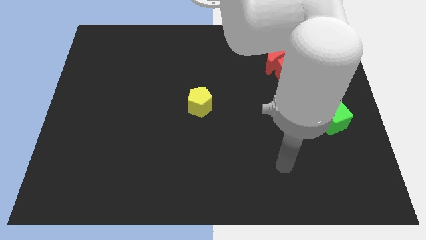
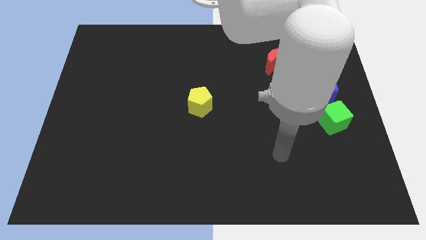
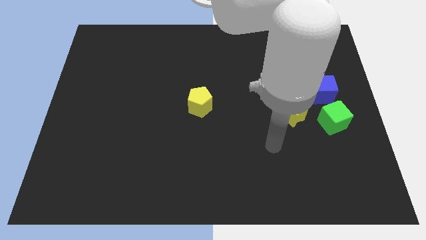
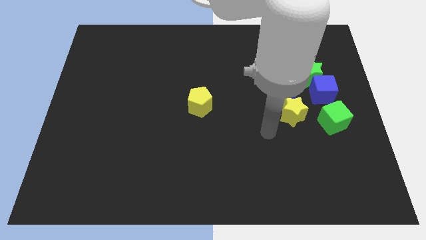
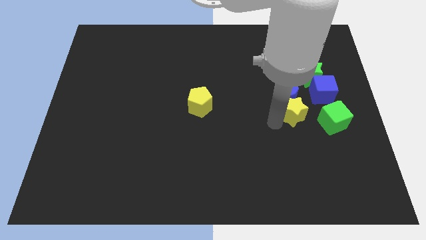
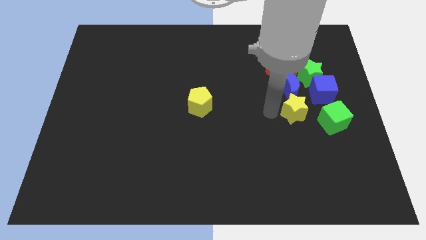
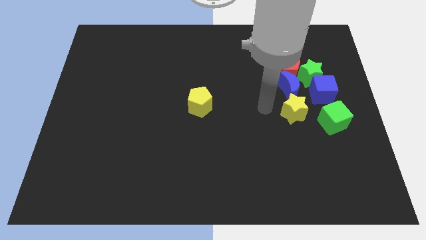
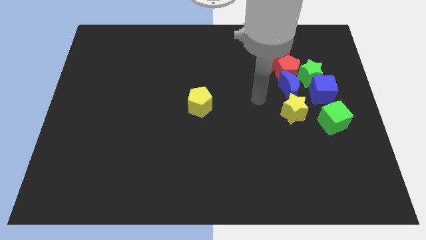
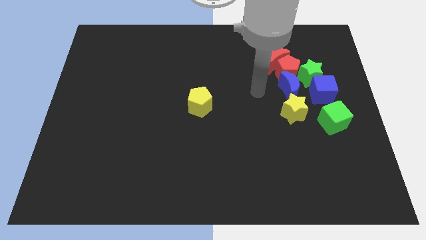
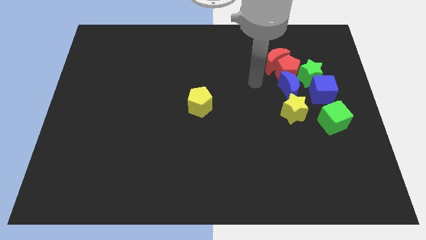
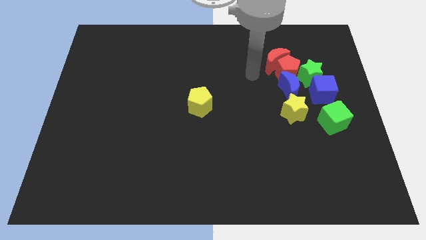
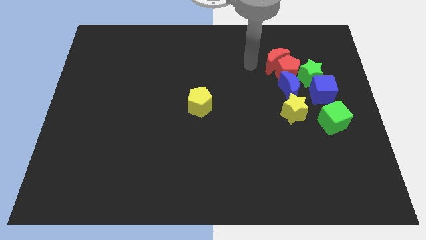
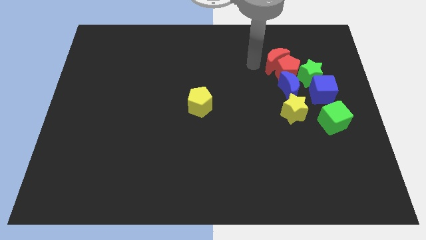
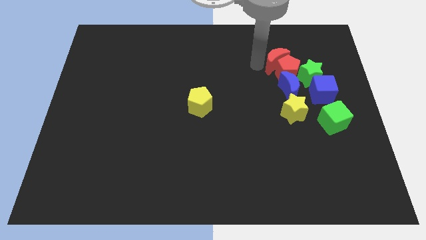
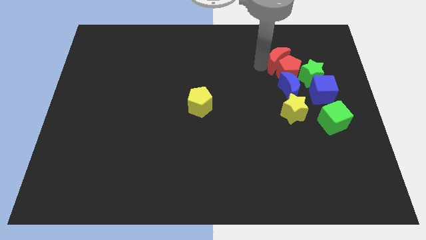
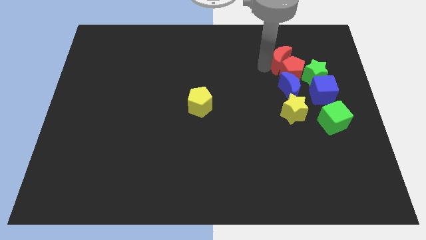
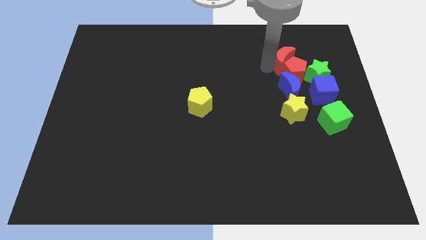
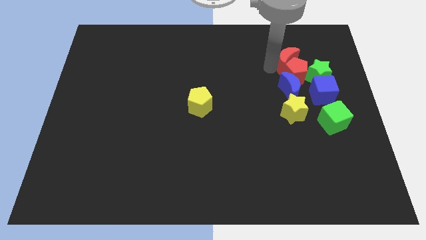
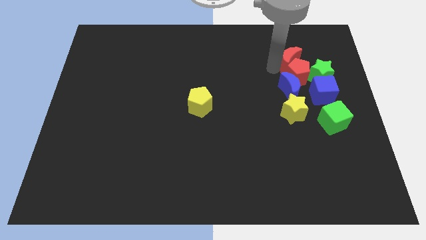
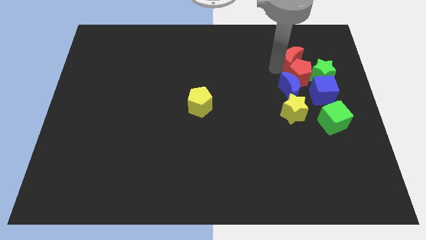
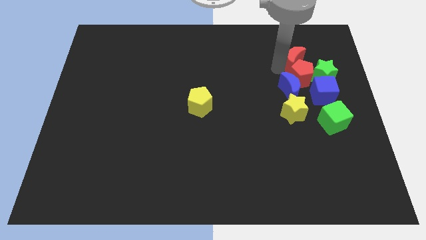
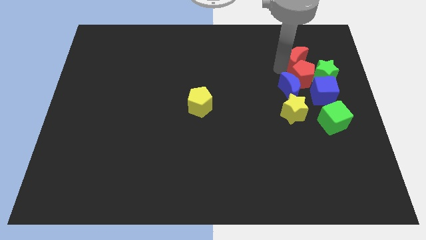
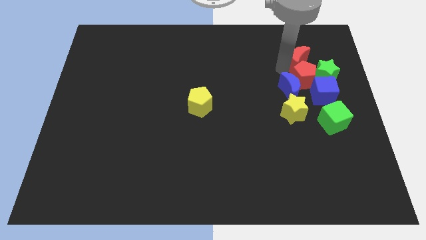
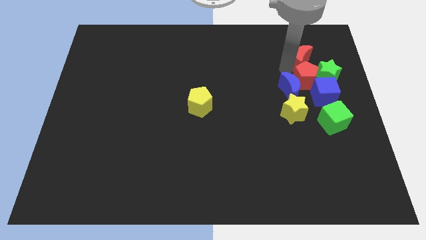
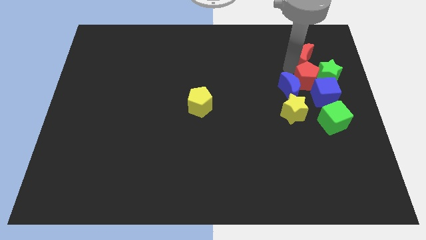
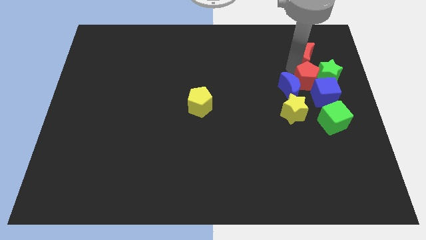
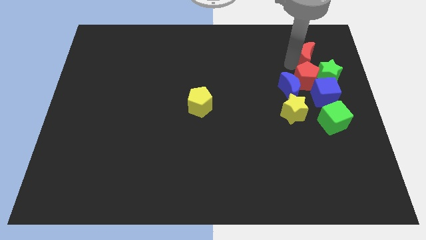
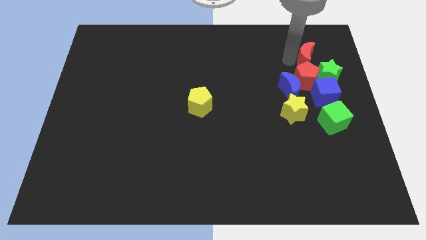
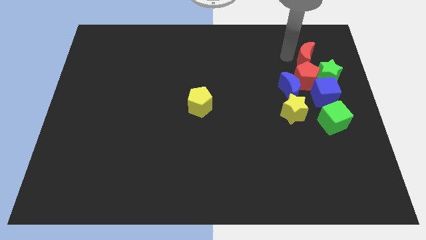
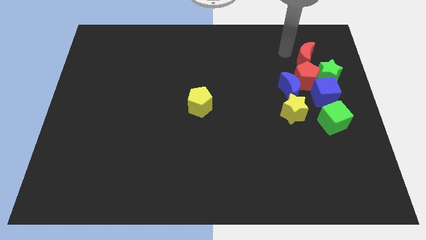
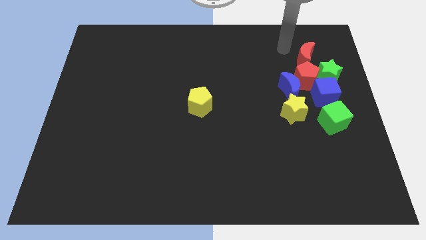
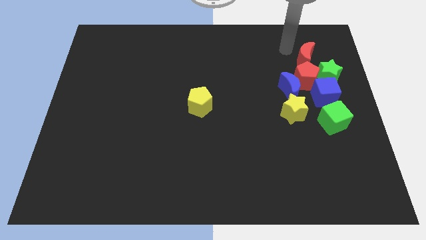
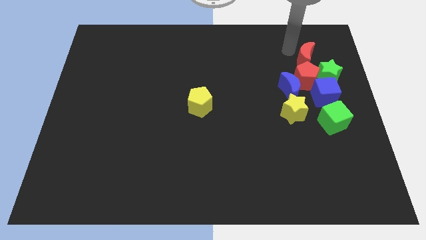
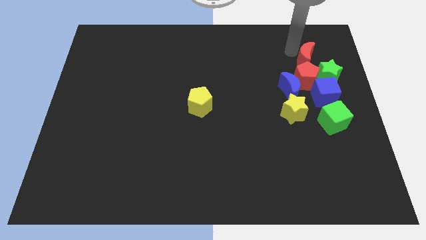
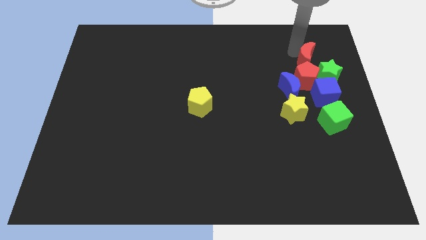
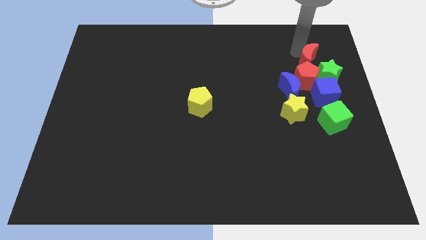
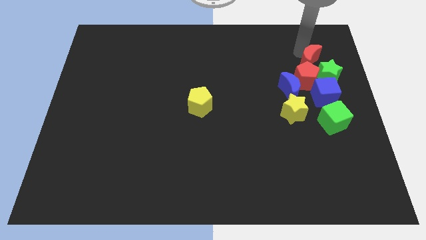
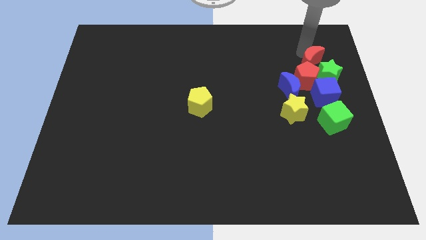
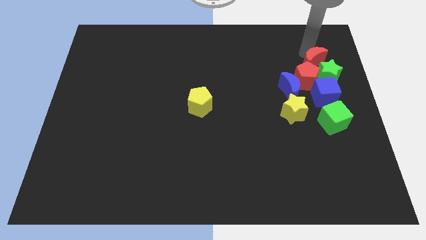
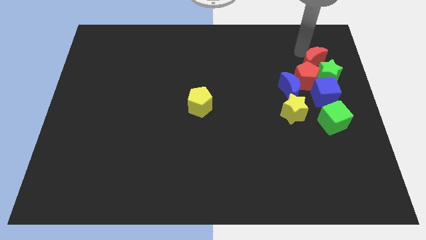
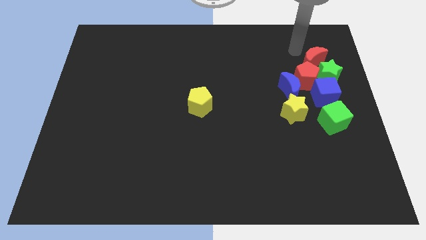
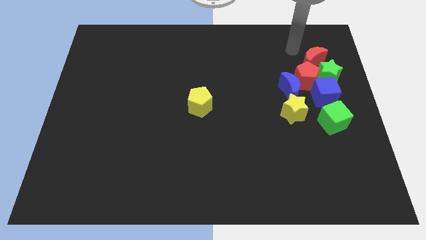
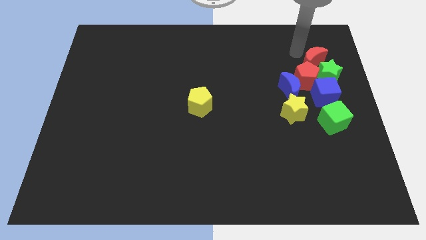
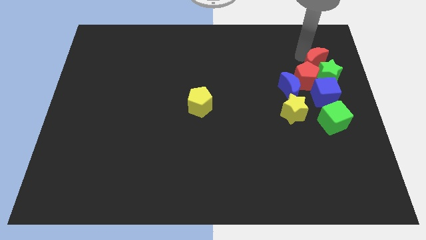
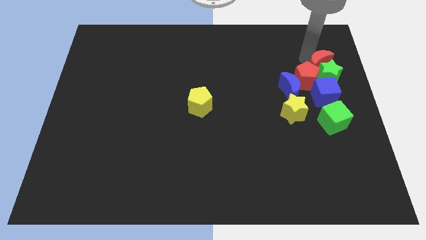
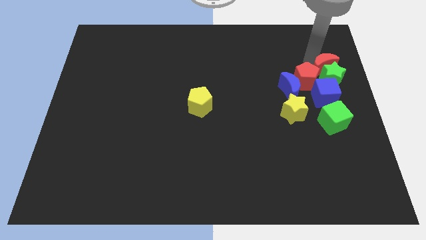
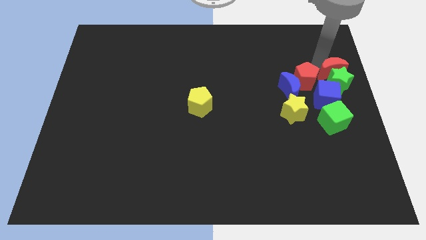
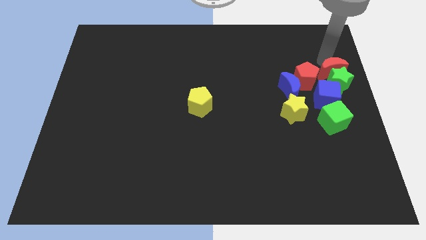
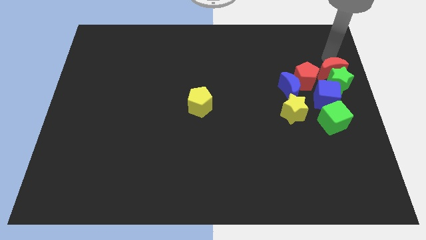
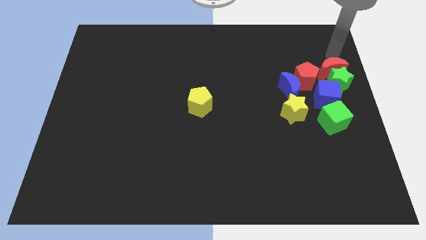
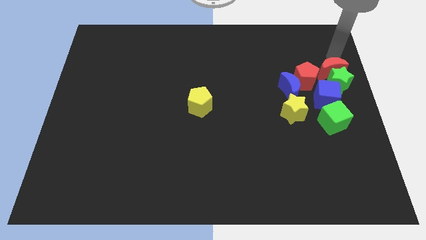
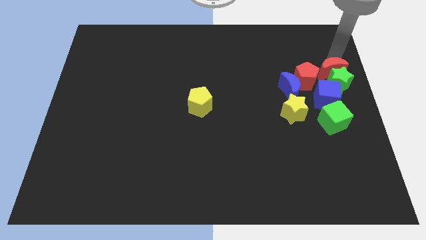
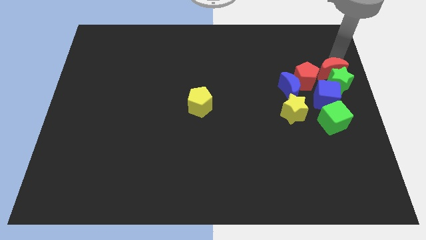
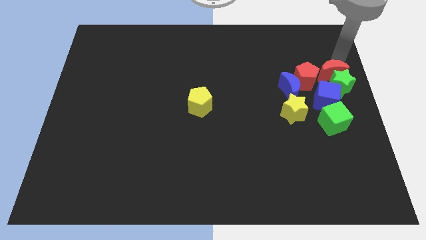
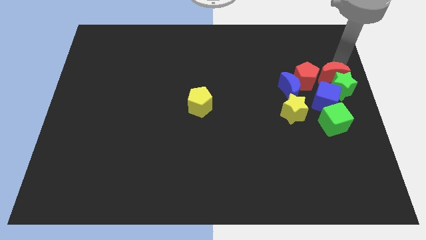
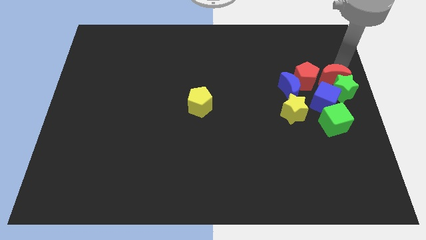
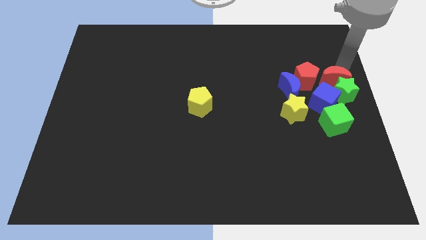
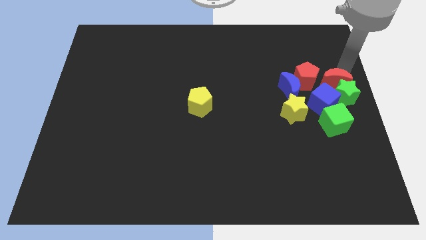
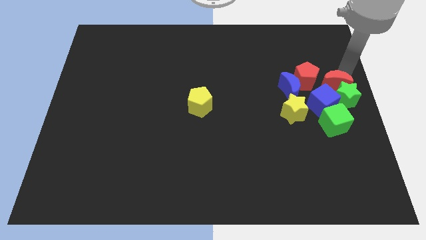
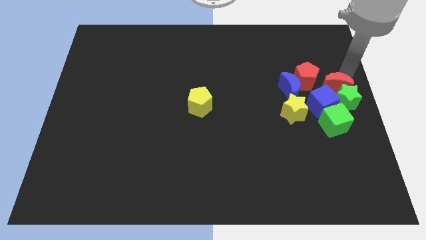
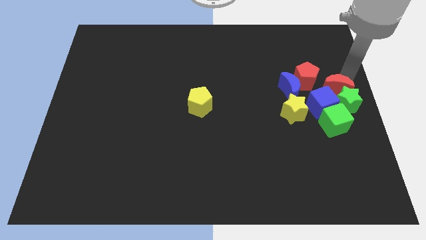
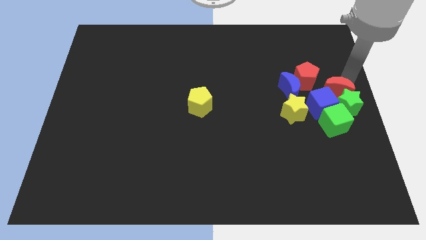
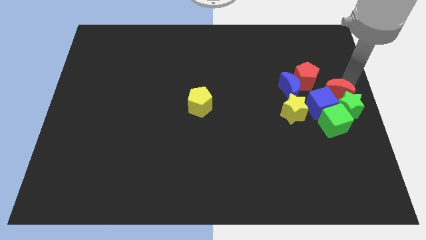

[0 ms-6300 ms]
put the red moon to the blue cube
